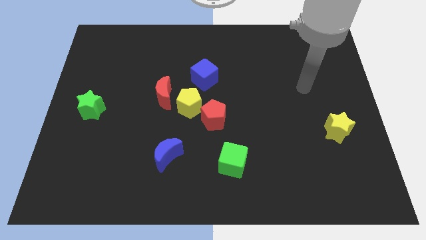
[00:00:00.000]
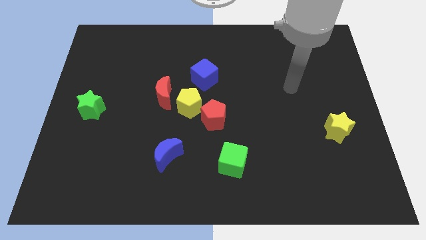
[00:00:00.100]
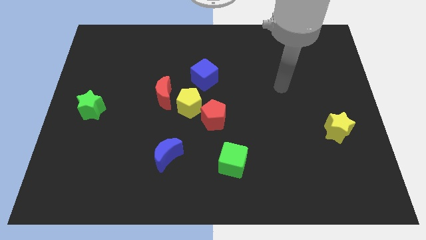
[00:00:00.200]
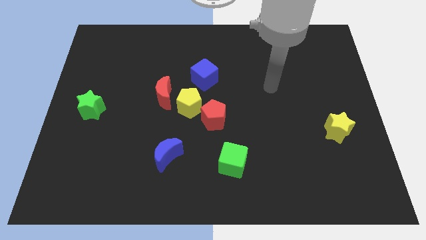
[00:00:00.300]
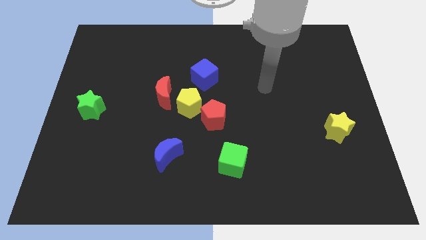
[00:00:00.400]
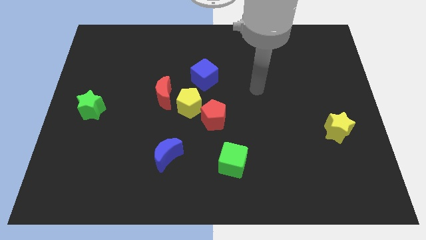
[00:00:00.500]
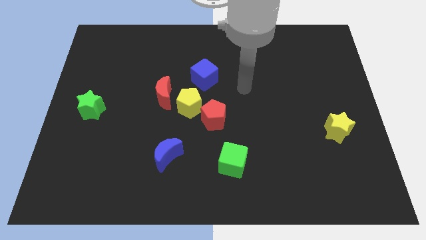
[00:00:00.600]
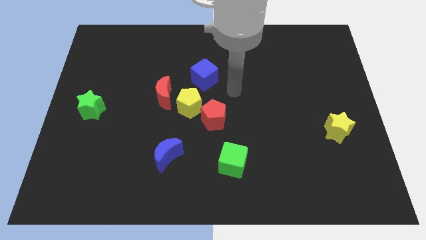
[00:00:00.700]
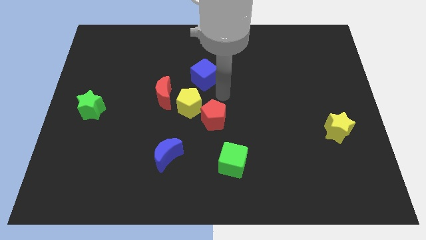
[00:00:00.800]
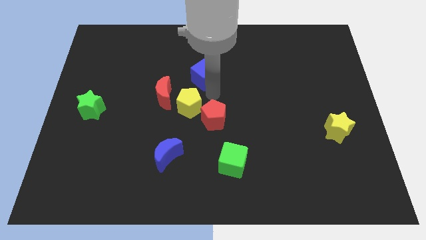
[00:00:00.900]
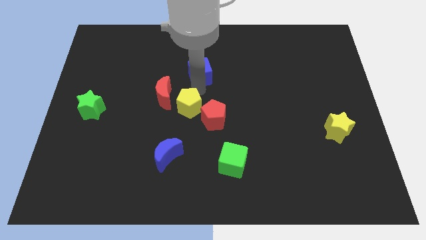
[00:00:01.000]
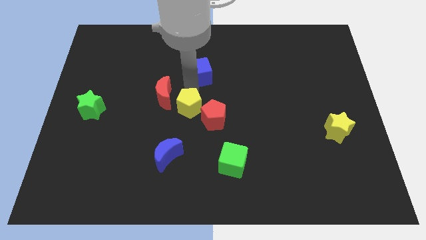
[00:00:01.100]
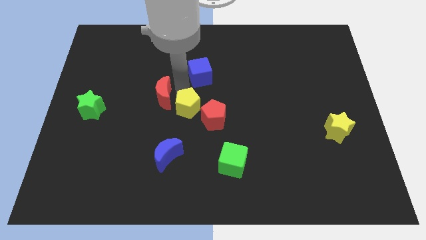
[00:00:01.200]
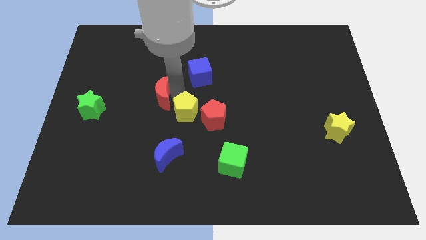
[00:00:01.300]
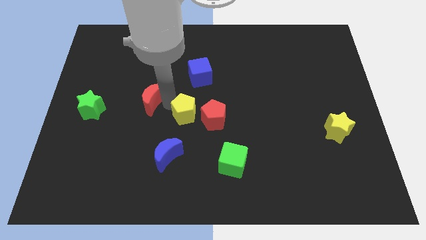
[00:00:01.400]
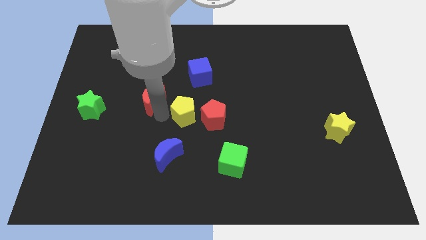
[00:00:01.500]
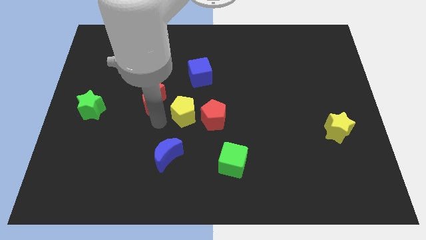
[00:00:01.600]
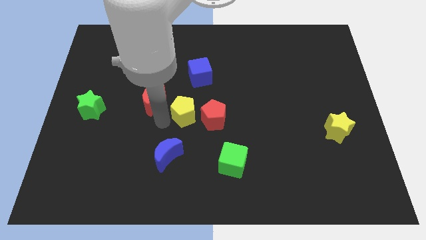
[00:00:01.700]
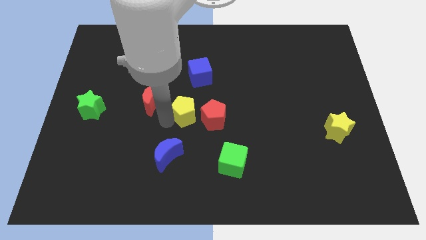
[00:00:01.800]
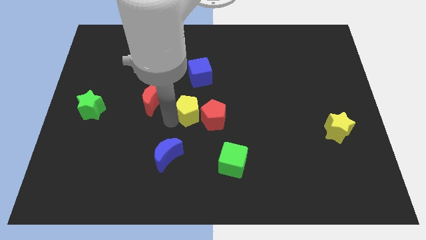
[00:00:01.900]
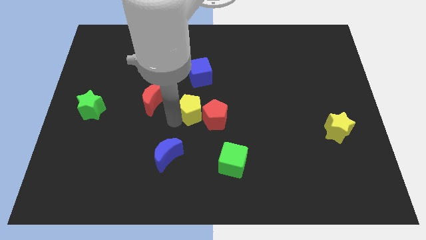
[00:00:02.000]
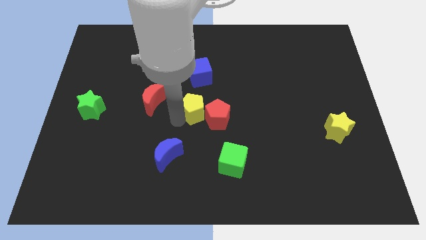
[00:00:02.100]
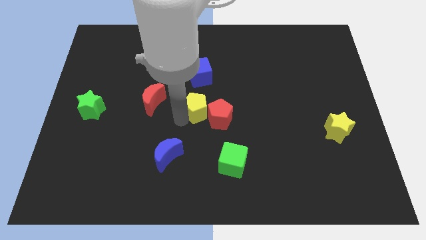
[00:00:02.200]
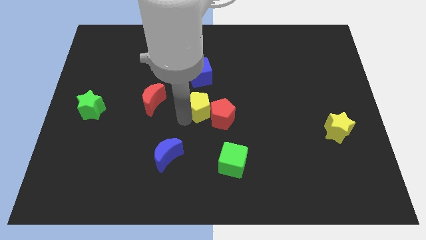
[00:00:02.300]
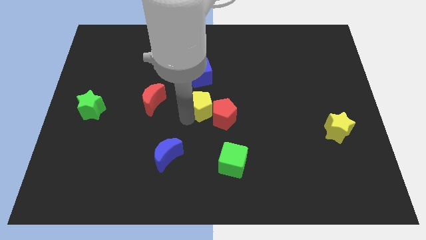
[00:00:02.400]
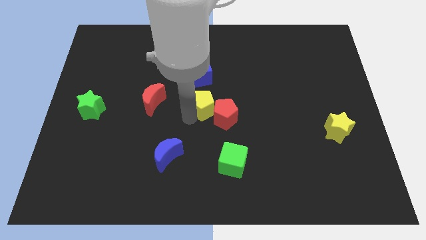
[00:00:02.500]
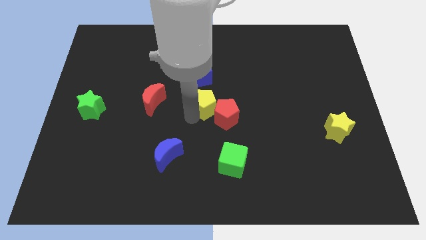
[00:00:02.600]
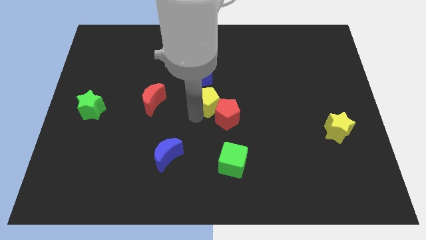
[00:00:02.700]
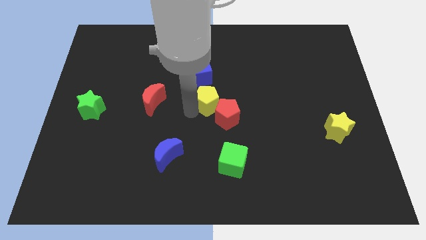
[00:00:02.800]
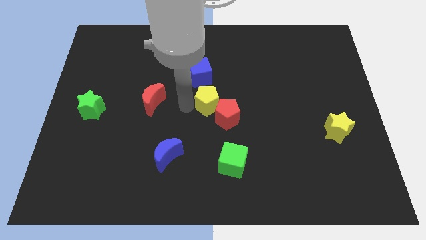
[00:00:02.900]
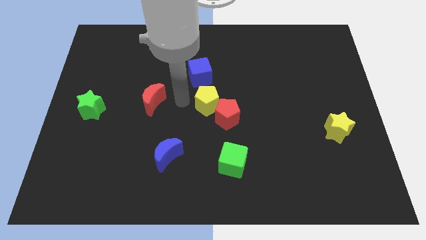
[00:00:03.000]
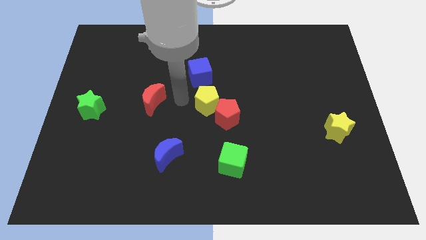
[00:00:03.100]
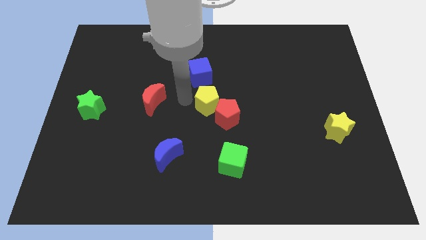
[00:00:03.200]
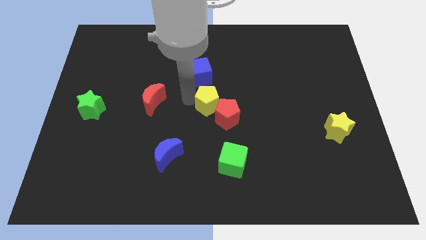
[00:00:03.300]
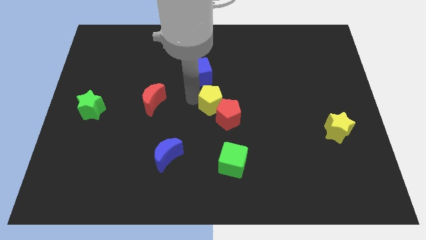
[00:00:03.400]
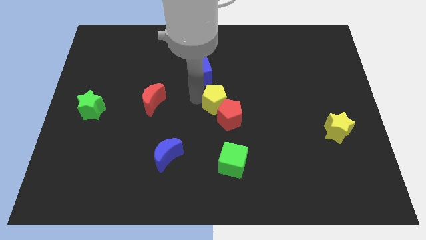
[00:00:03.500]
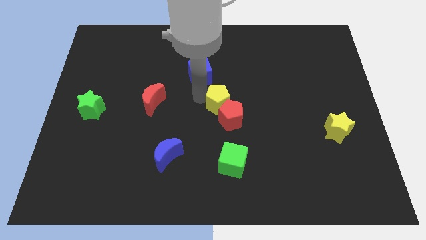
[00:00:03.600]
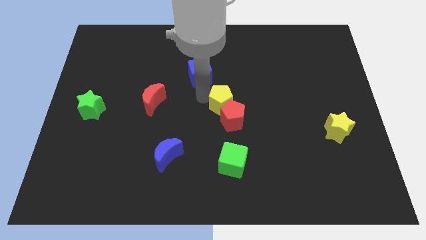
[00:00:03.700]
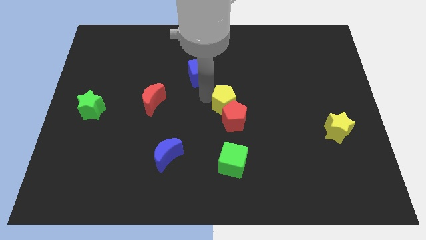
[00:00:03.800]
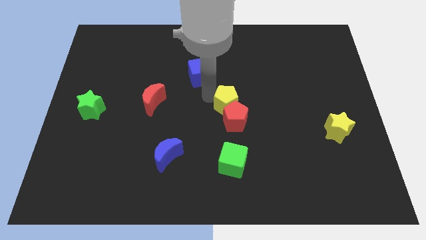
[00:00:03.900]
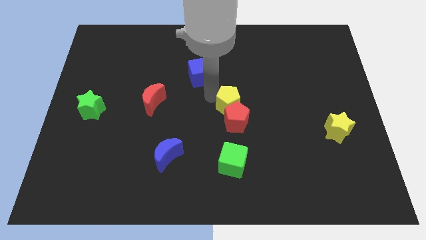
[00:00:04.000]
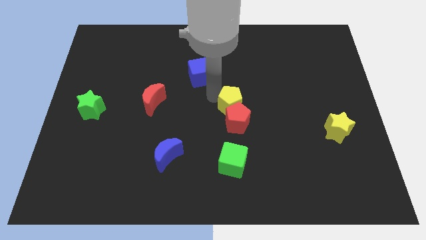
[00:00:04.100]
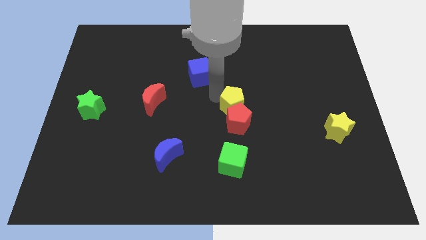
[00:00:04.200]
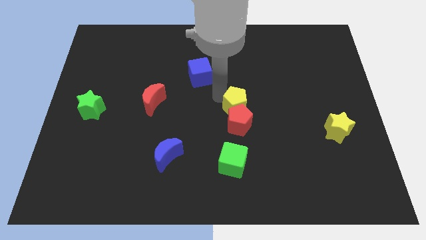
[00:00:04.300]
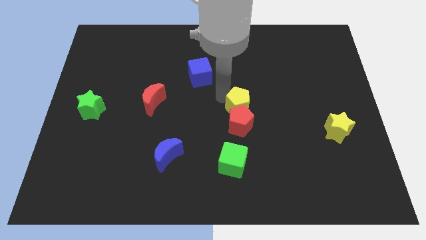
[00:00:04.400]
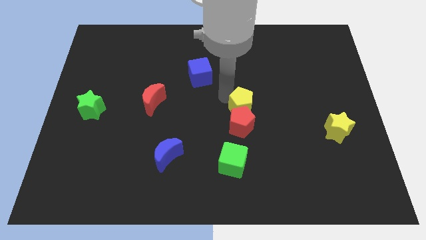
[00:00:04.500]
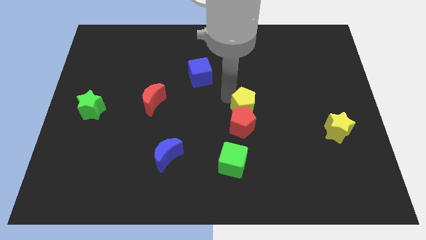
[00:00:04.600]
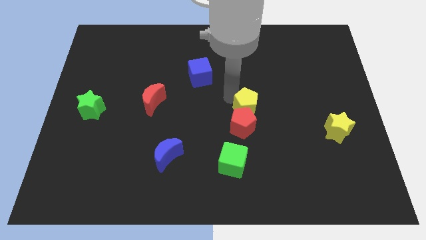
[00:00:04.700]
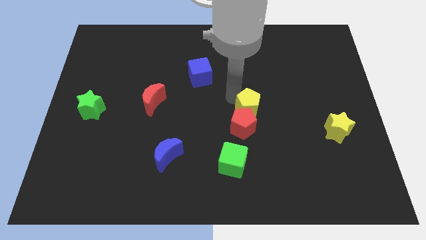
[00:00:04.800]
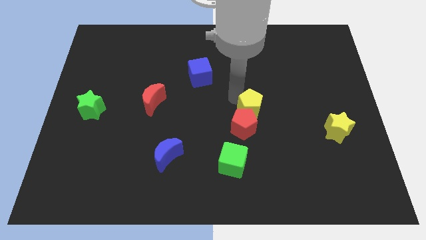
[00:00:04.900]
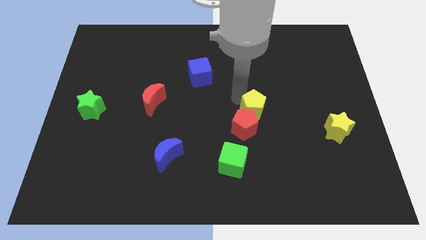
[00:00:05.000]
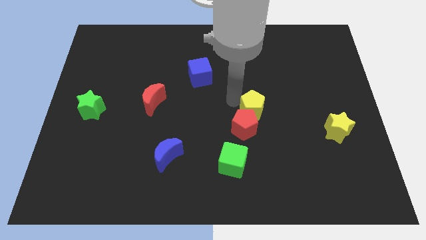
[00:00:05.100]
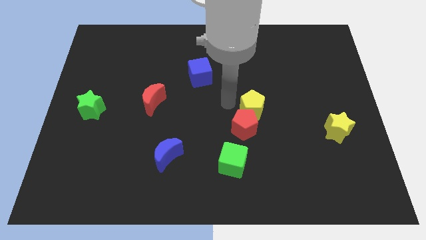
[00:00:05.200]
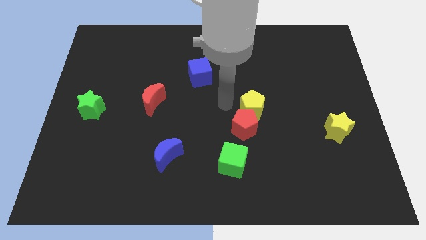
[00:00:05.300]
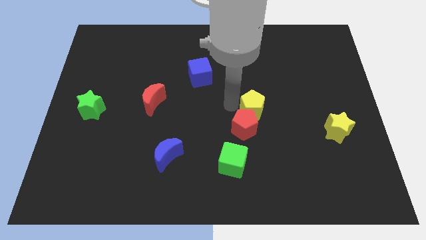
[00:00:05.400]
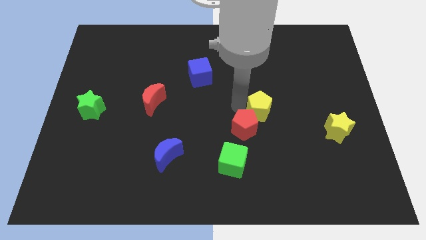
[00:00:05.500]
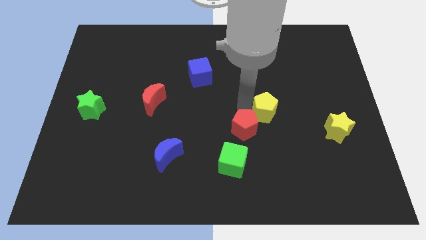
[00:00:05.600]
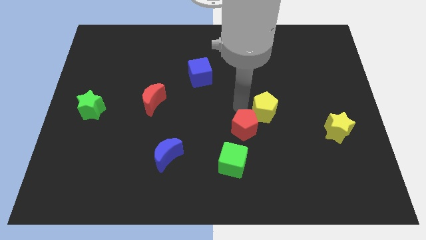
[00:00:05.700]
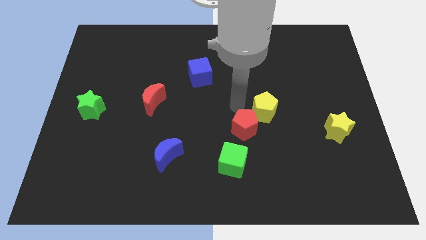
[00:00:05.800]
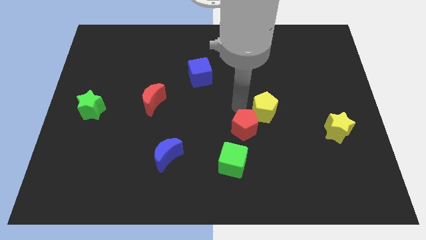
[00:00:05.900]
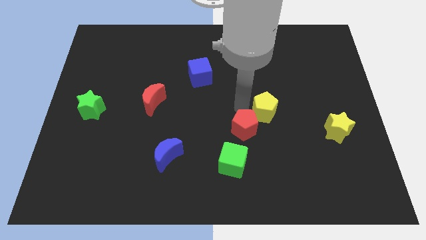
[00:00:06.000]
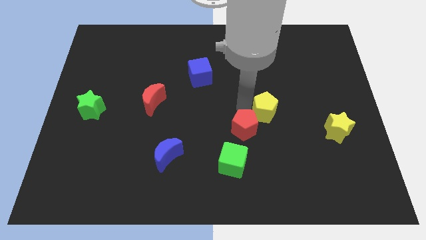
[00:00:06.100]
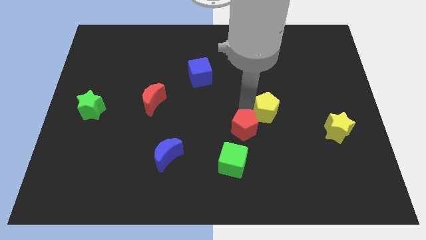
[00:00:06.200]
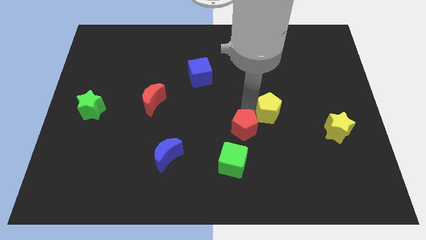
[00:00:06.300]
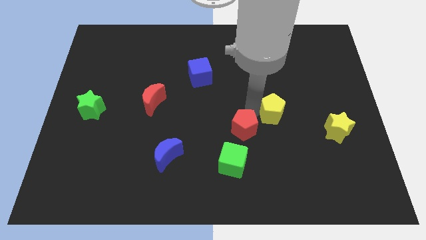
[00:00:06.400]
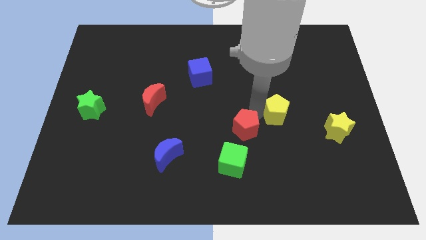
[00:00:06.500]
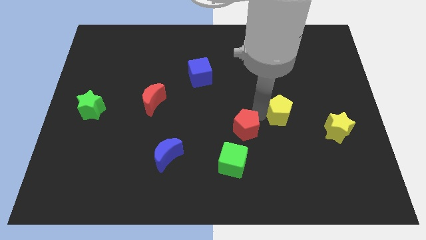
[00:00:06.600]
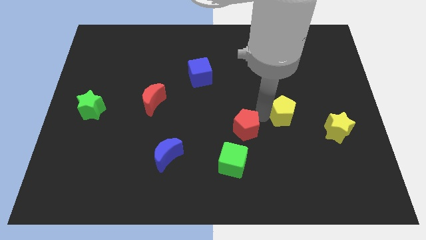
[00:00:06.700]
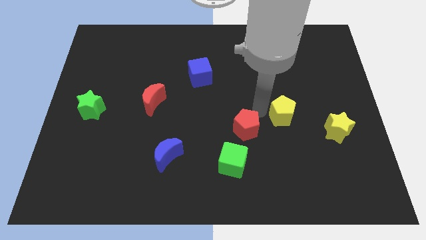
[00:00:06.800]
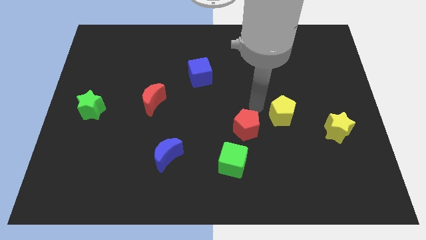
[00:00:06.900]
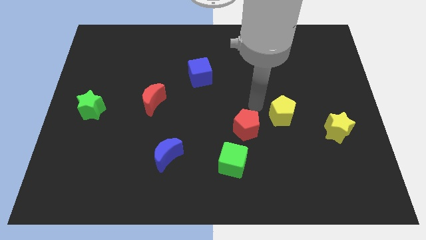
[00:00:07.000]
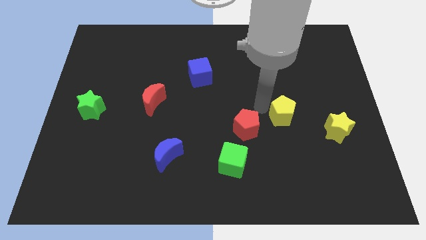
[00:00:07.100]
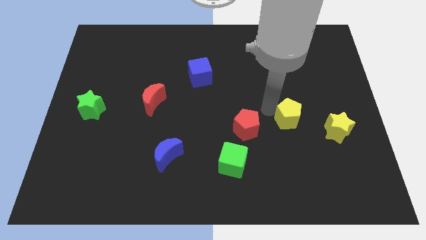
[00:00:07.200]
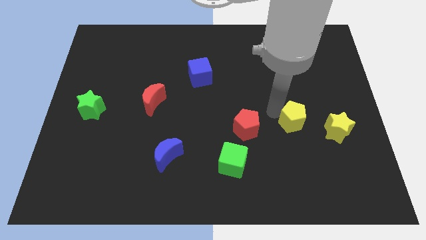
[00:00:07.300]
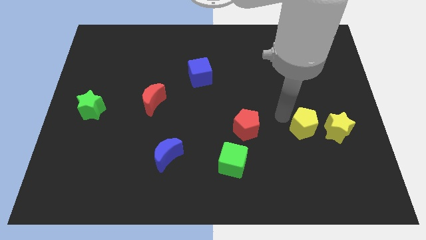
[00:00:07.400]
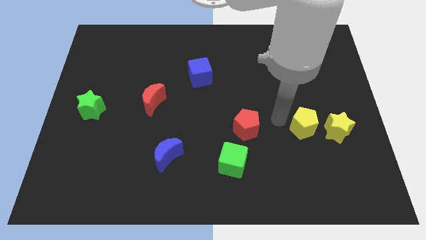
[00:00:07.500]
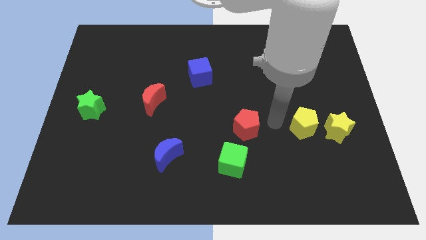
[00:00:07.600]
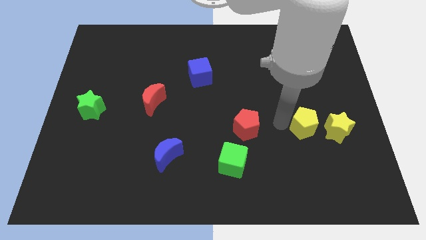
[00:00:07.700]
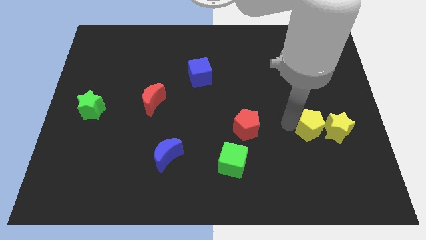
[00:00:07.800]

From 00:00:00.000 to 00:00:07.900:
put the yellow pentagon next to the yellow star
